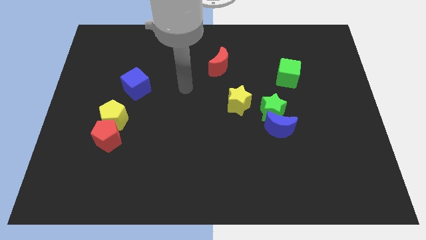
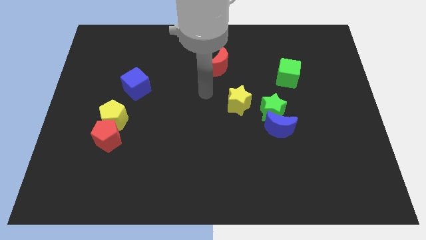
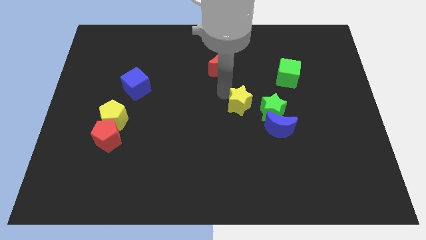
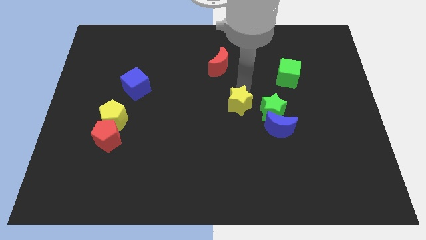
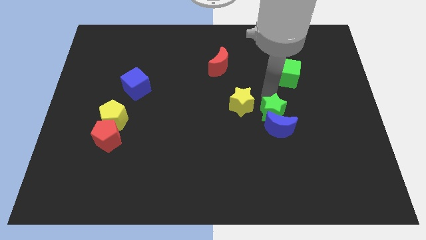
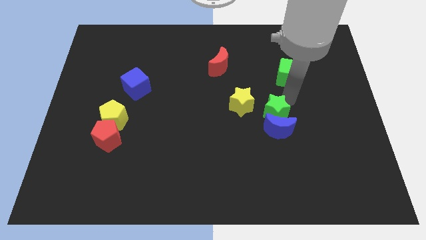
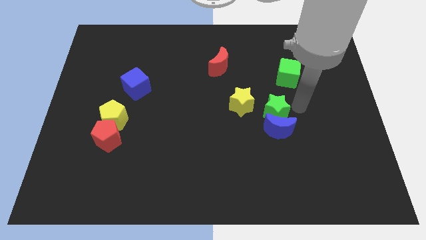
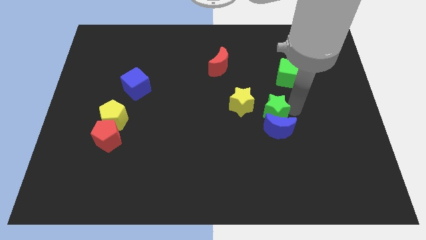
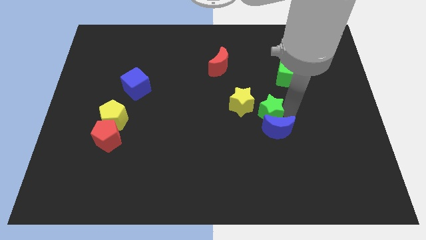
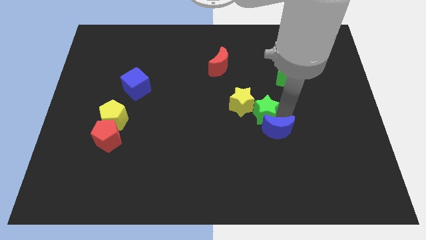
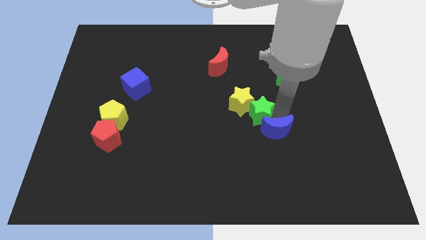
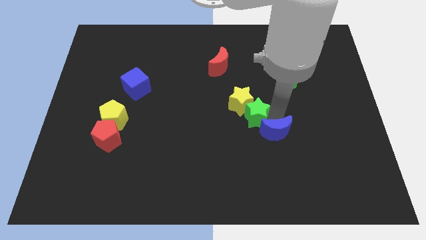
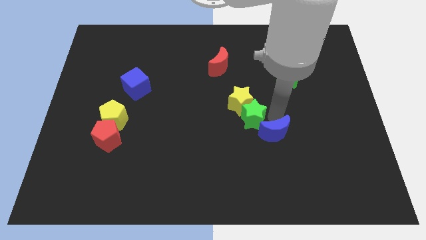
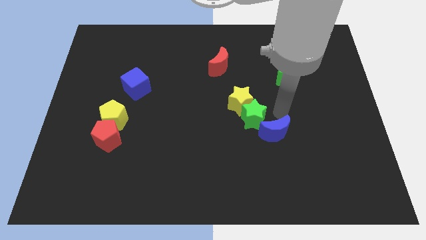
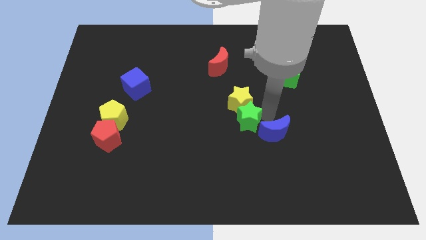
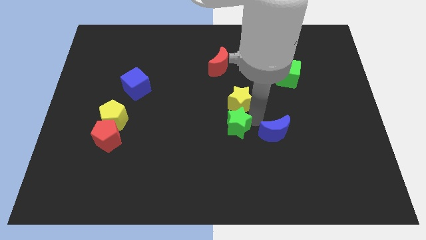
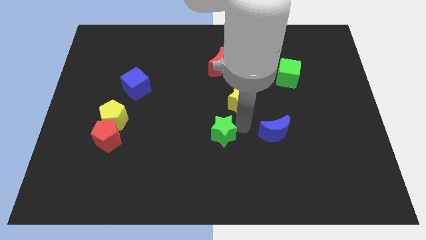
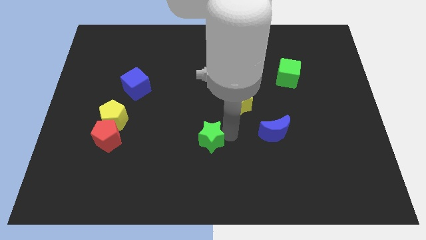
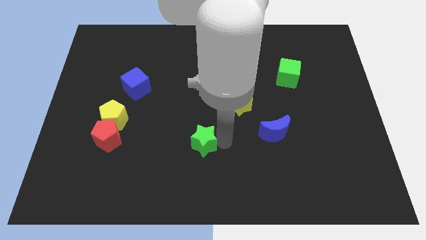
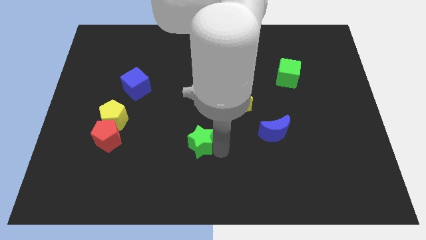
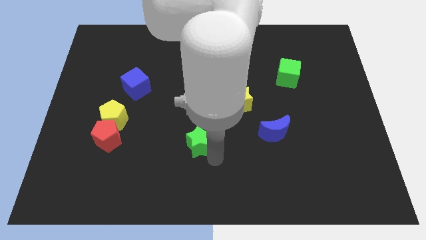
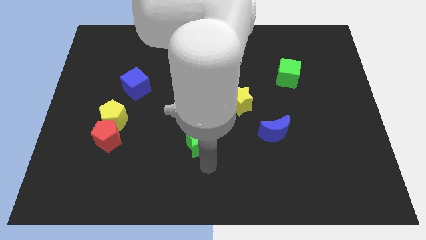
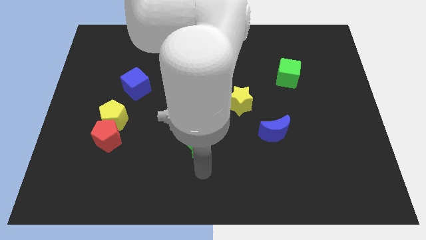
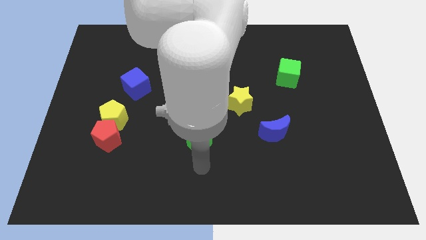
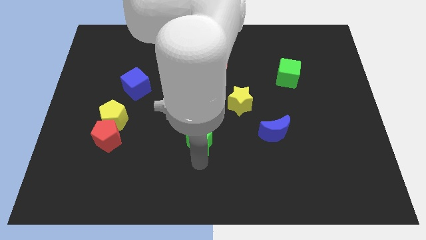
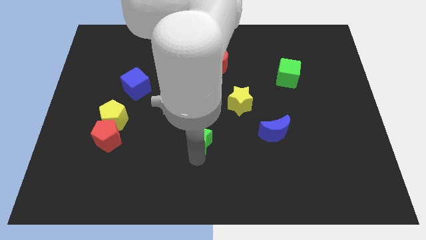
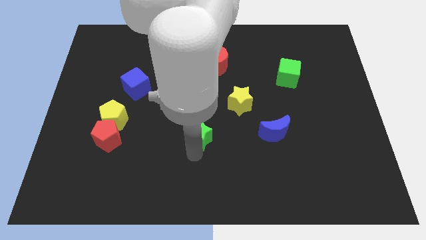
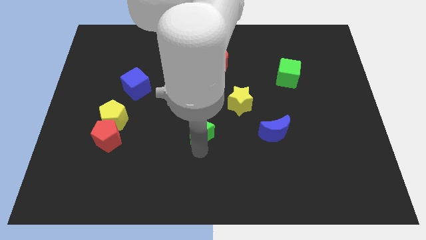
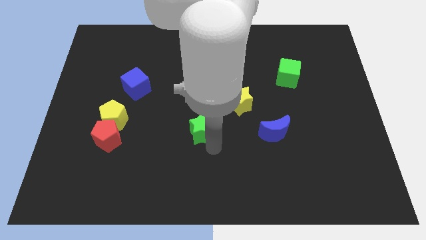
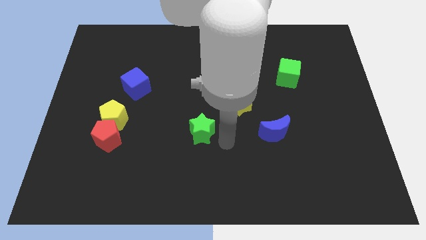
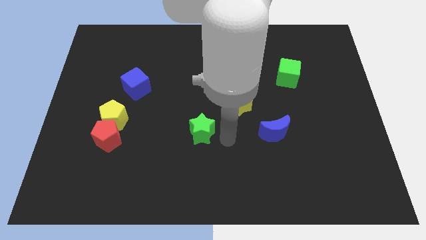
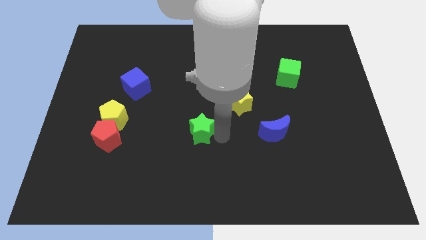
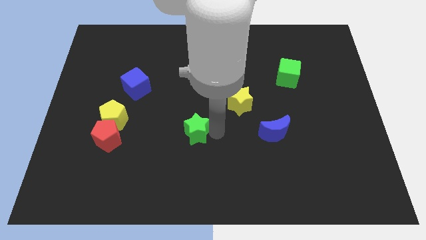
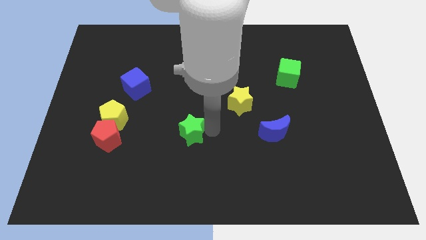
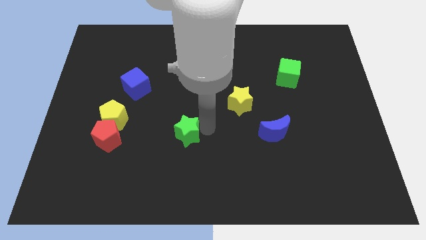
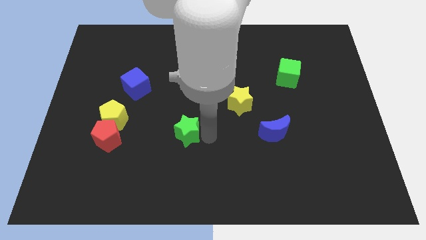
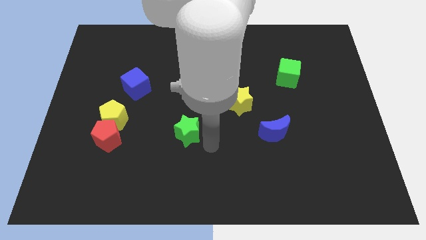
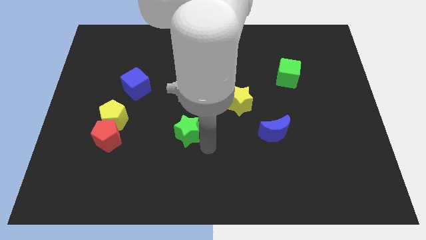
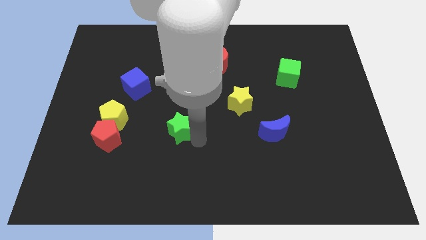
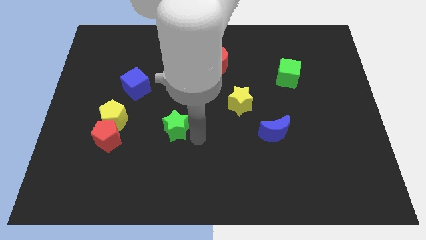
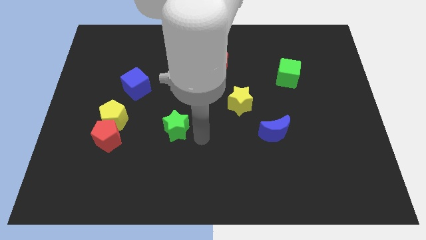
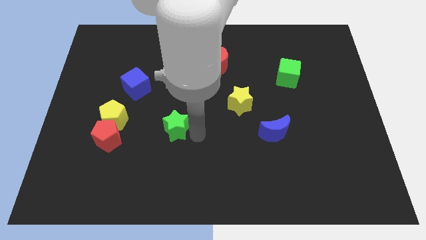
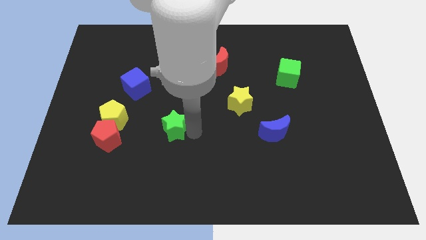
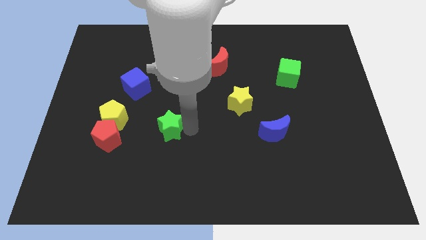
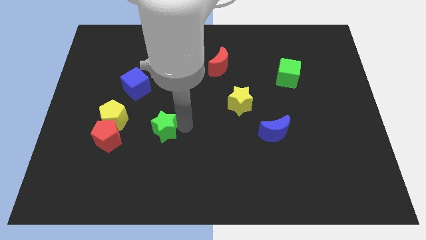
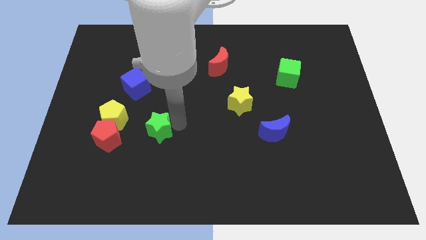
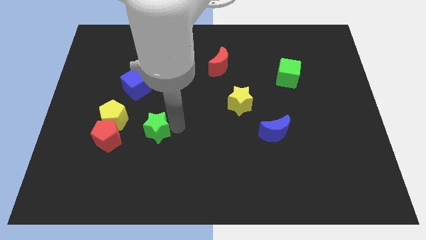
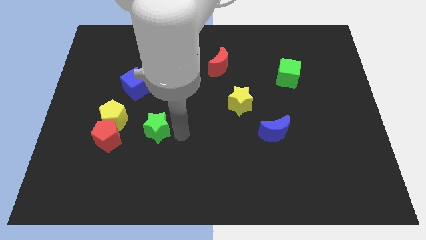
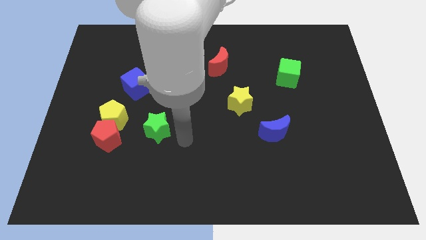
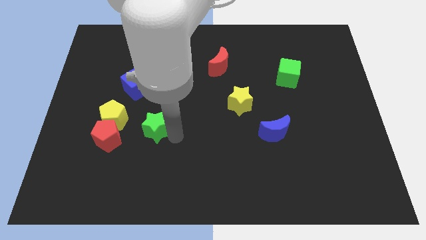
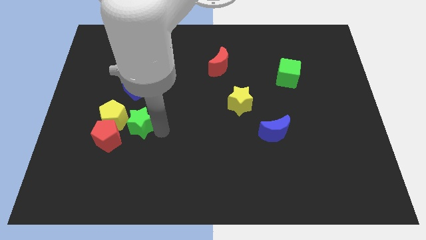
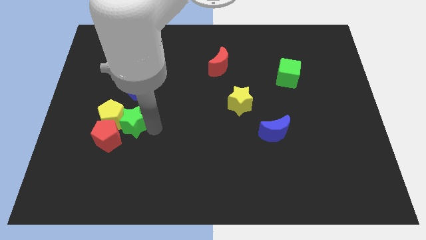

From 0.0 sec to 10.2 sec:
slide the green star to the yellow pentagon

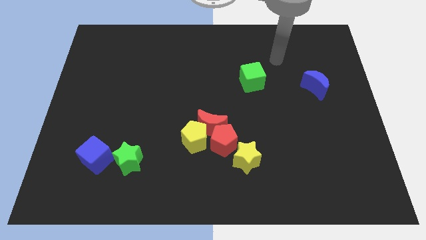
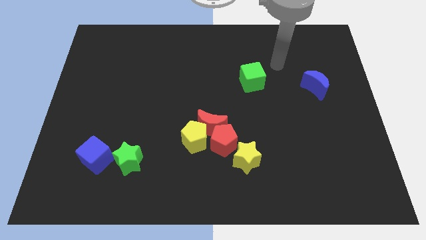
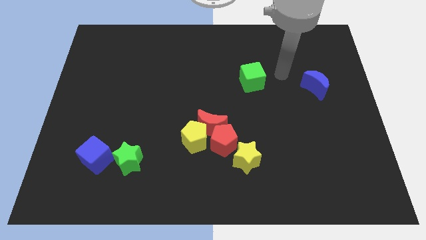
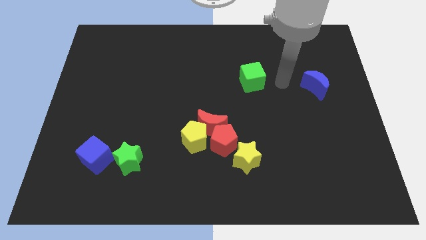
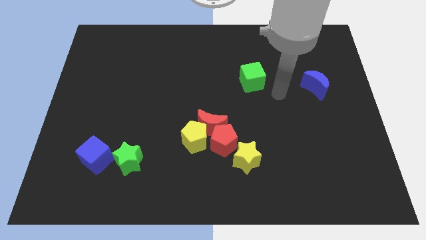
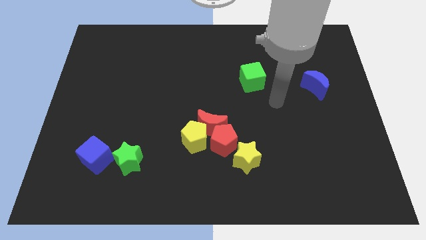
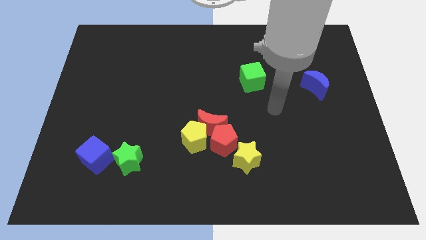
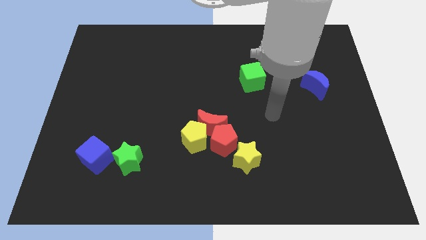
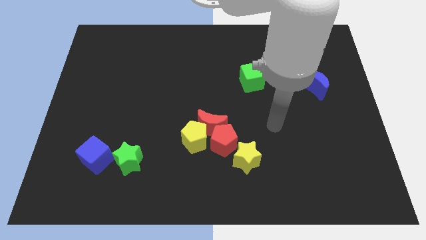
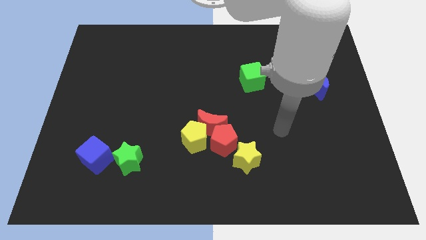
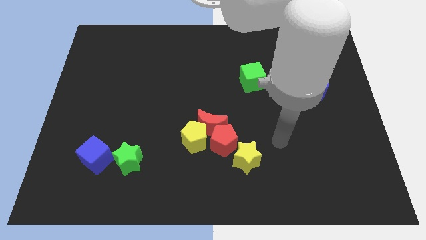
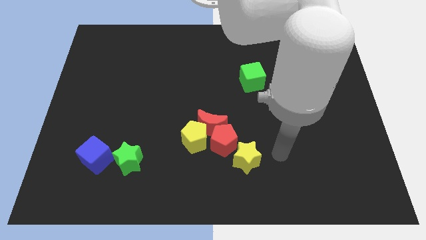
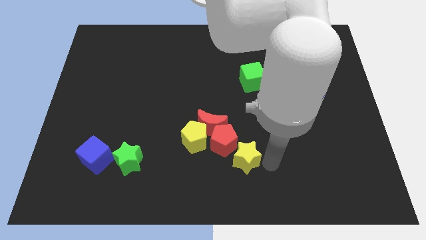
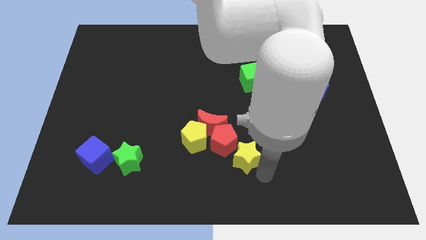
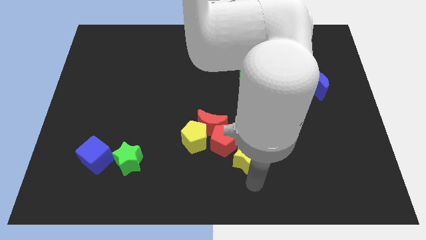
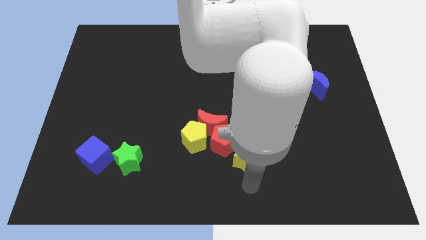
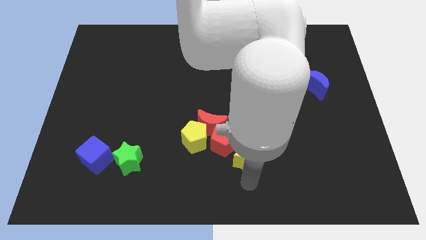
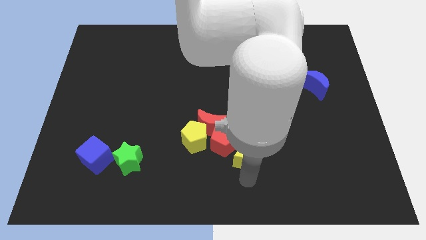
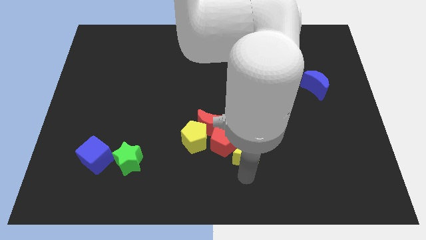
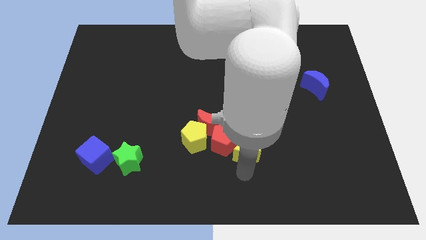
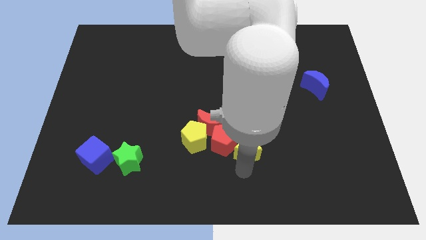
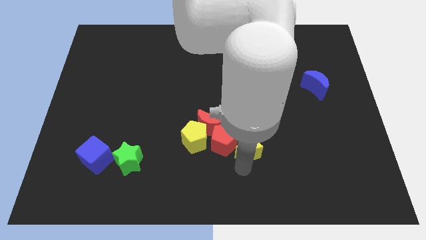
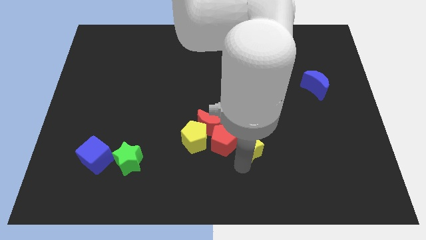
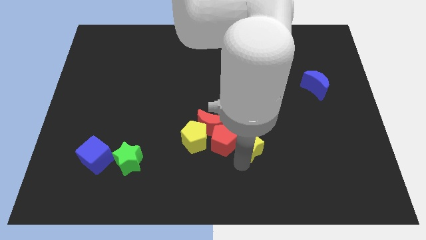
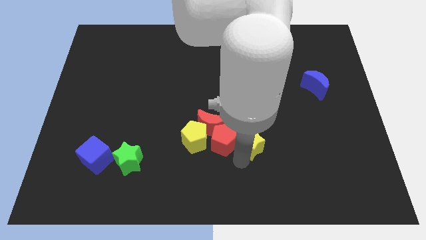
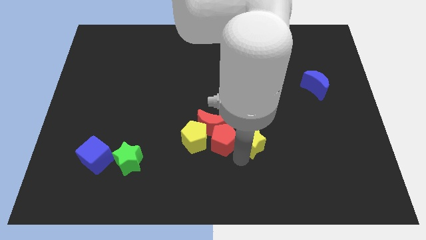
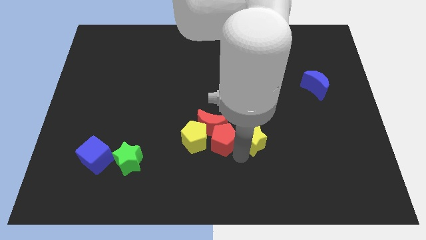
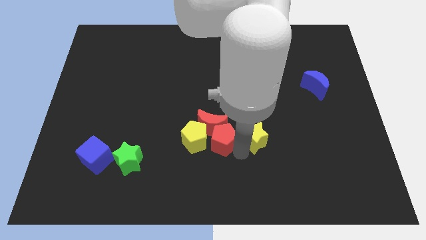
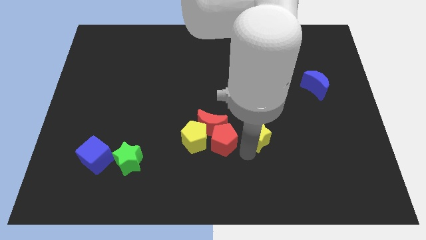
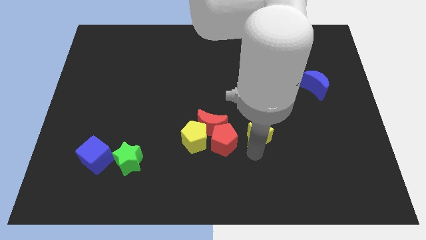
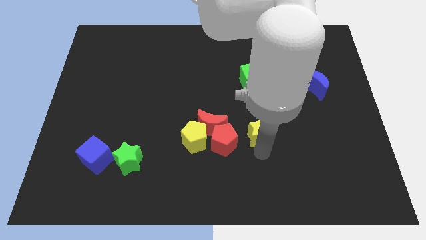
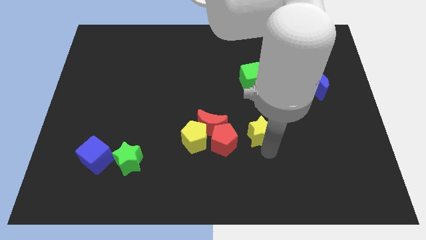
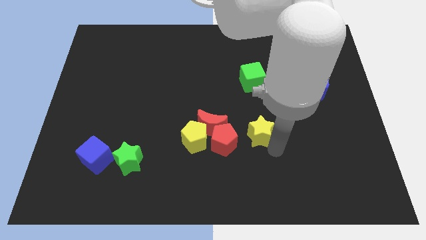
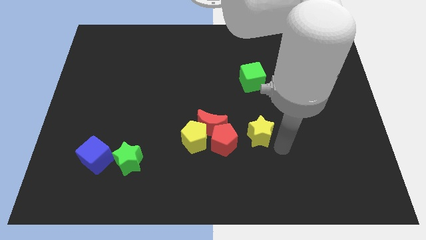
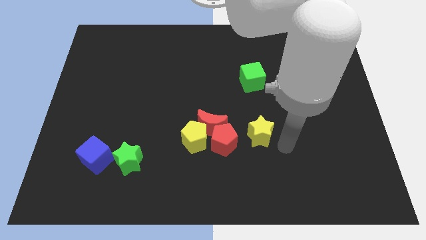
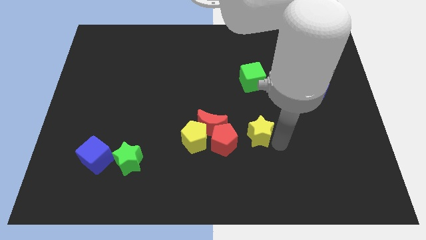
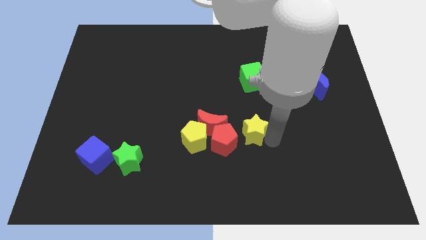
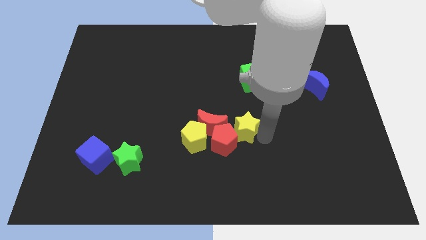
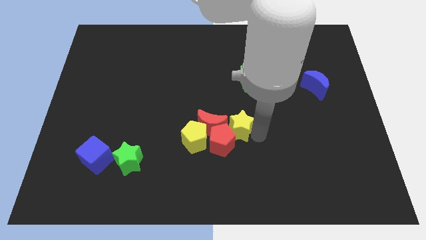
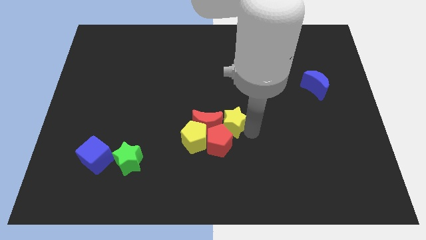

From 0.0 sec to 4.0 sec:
move the yellow star next to the red moon
